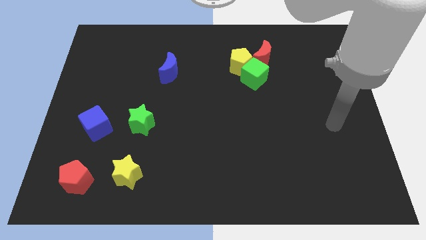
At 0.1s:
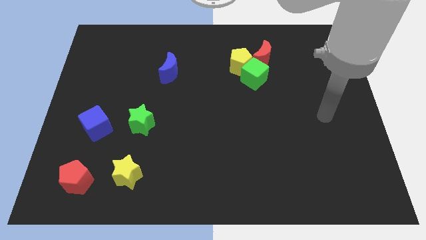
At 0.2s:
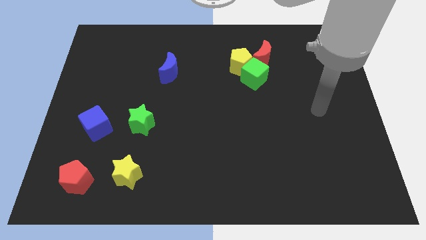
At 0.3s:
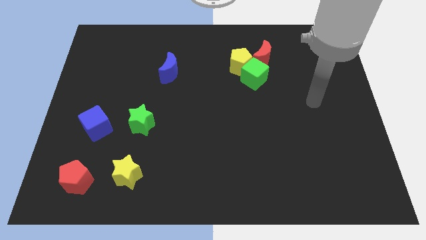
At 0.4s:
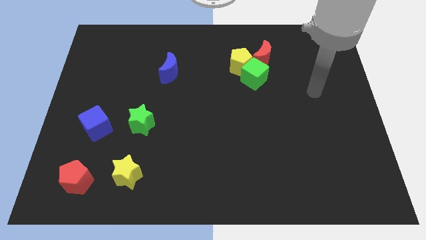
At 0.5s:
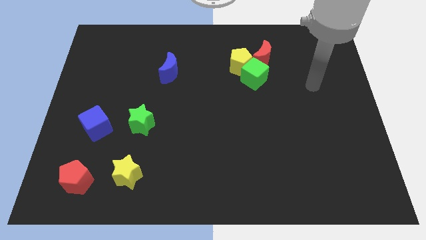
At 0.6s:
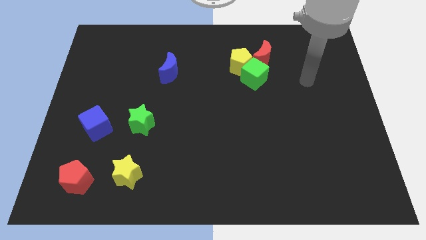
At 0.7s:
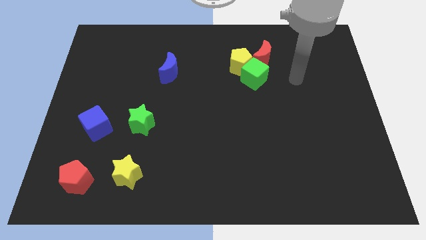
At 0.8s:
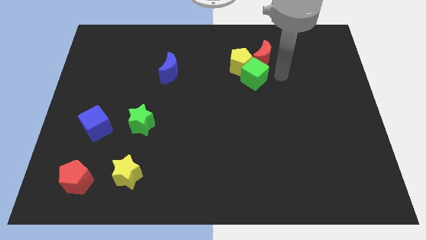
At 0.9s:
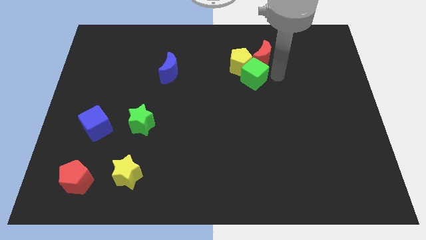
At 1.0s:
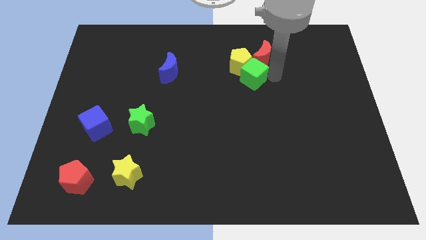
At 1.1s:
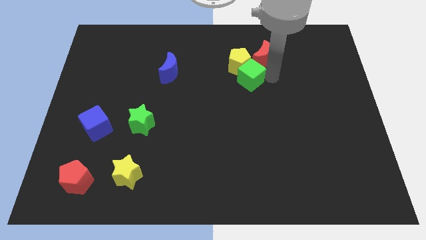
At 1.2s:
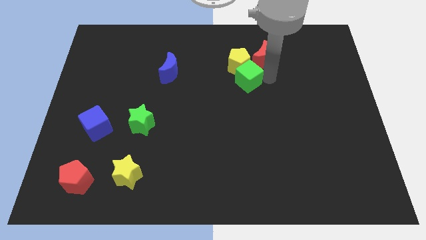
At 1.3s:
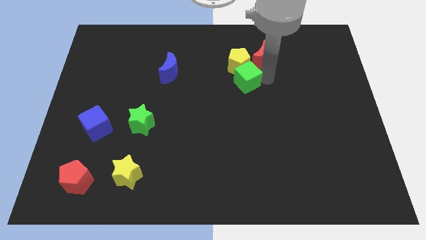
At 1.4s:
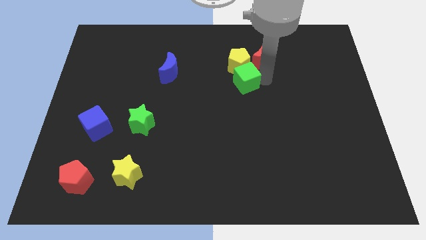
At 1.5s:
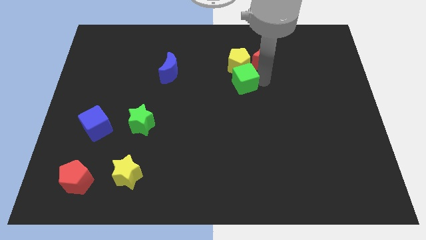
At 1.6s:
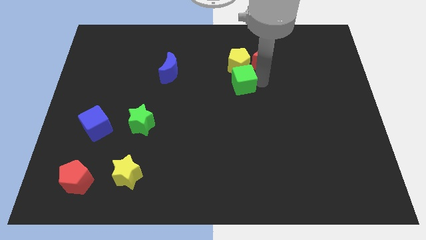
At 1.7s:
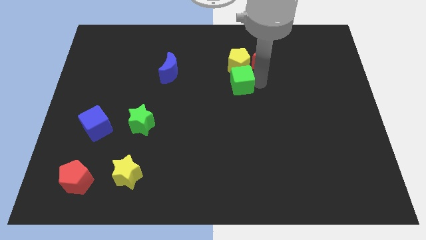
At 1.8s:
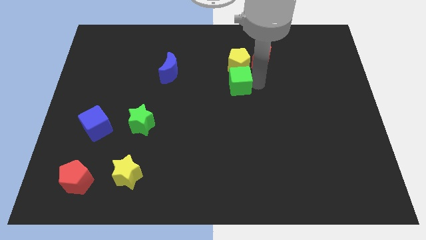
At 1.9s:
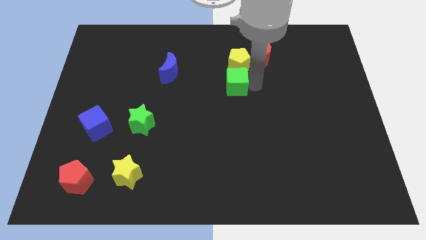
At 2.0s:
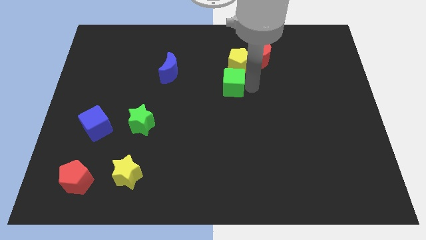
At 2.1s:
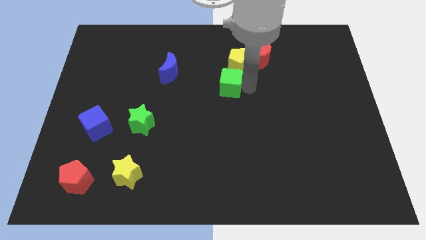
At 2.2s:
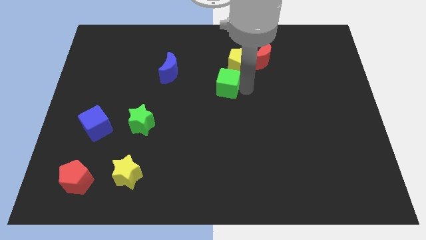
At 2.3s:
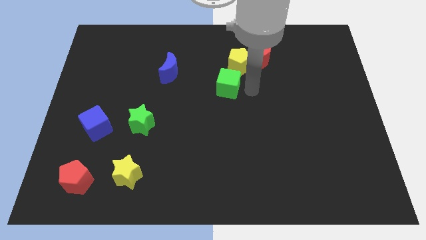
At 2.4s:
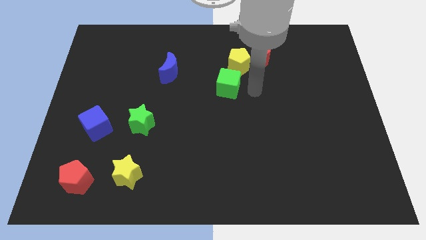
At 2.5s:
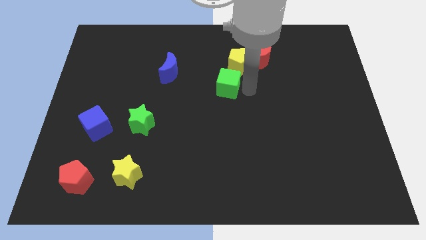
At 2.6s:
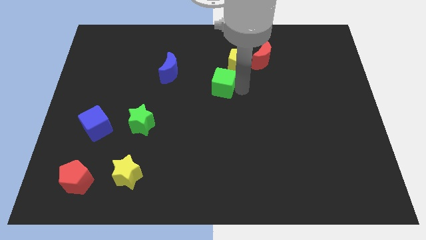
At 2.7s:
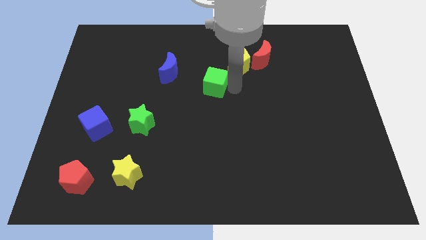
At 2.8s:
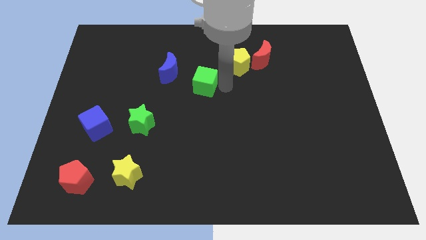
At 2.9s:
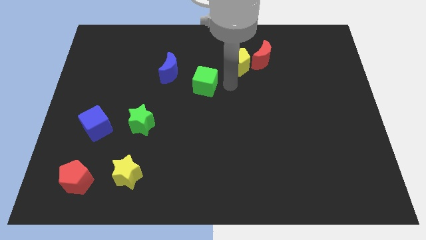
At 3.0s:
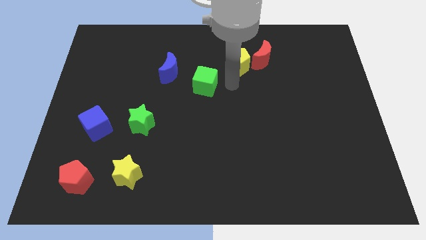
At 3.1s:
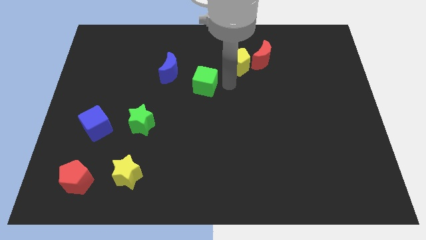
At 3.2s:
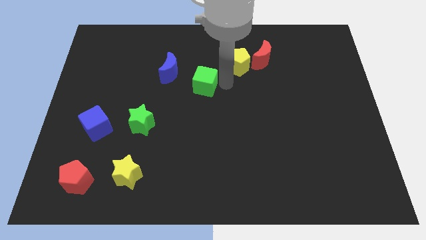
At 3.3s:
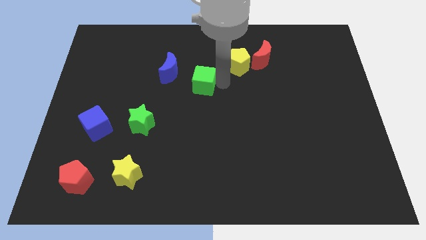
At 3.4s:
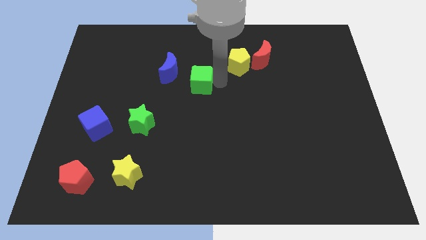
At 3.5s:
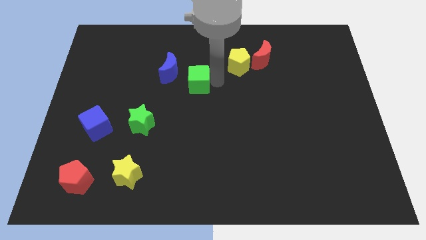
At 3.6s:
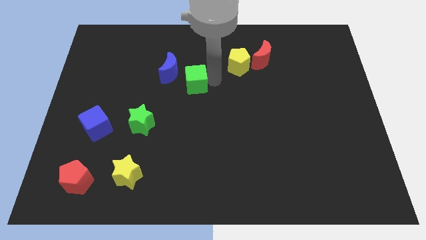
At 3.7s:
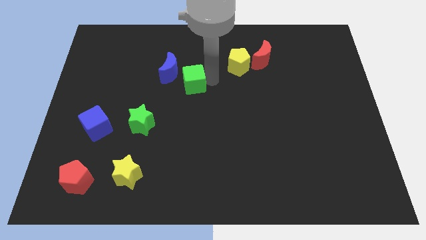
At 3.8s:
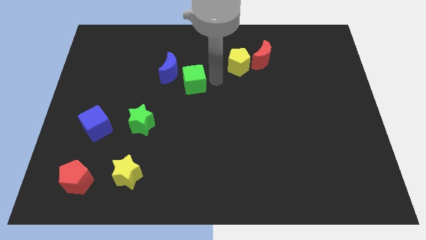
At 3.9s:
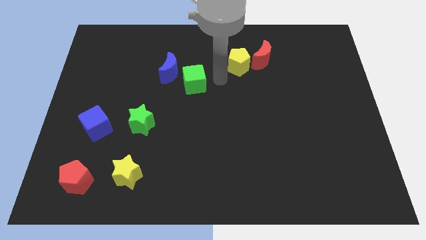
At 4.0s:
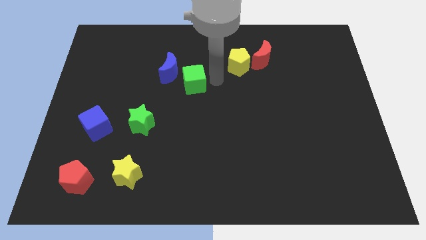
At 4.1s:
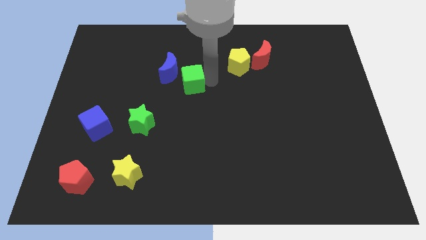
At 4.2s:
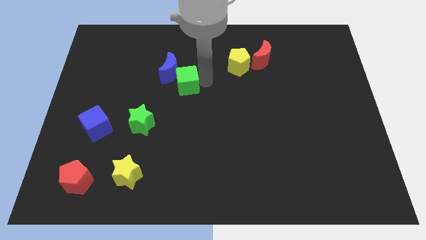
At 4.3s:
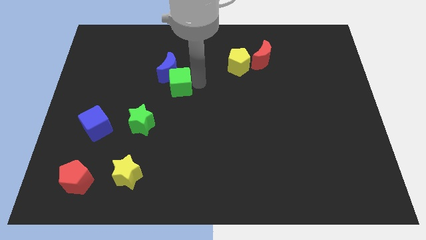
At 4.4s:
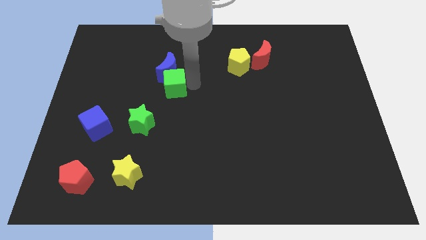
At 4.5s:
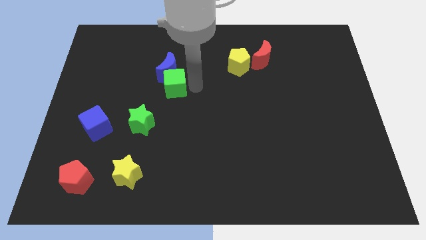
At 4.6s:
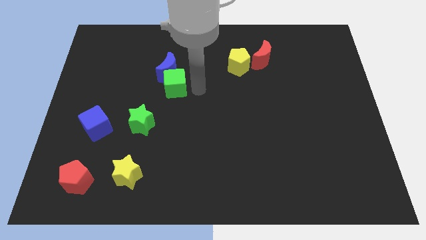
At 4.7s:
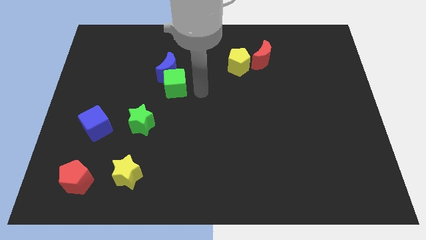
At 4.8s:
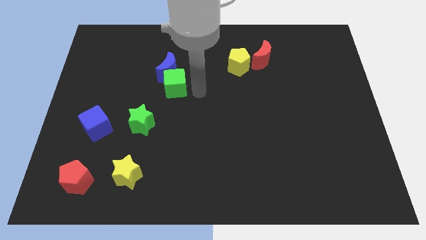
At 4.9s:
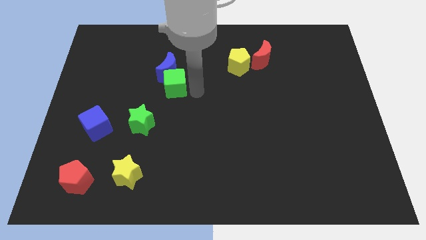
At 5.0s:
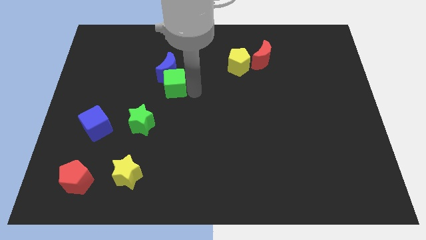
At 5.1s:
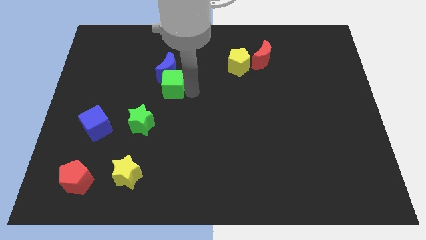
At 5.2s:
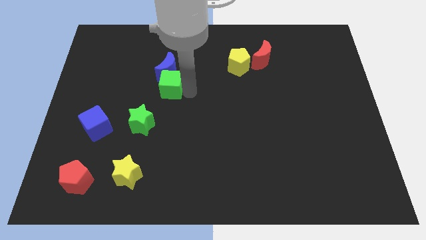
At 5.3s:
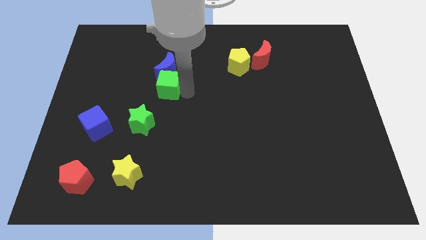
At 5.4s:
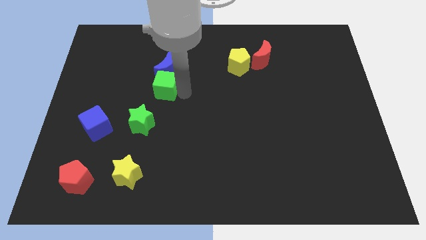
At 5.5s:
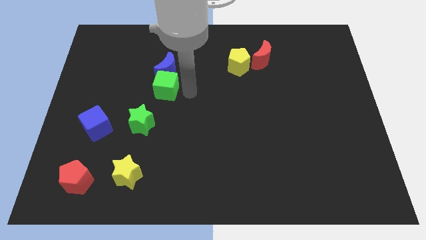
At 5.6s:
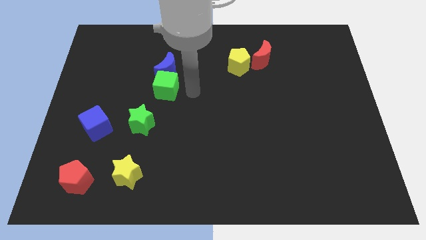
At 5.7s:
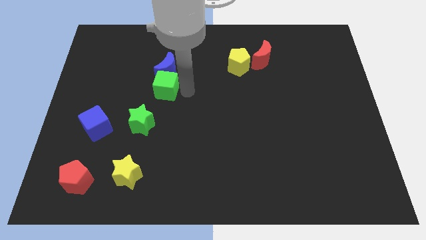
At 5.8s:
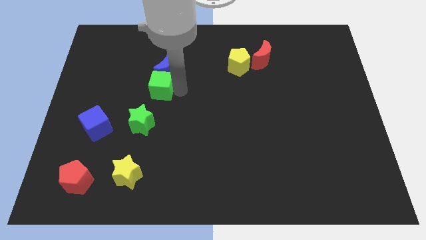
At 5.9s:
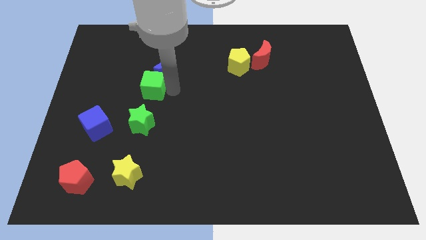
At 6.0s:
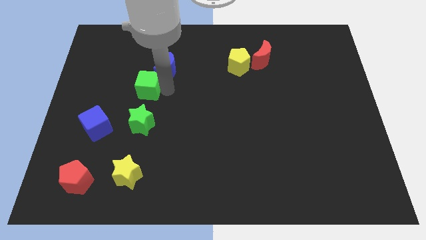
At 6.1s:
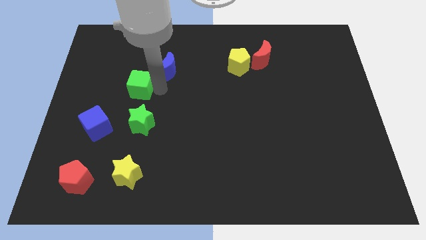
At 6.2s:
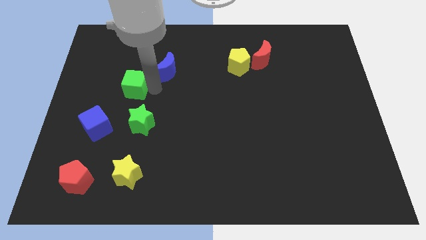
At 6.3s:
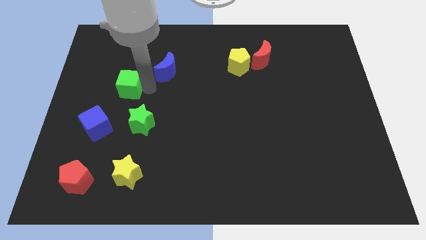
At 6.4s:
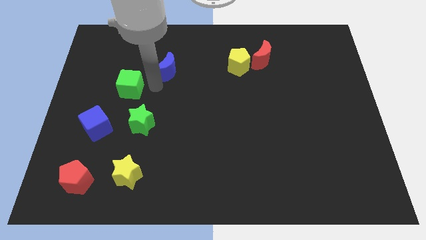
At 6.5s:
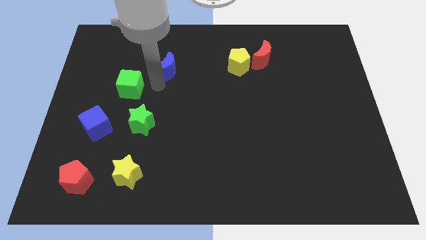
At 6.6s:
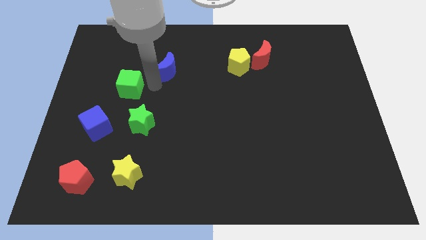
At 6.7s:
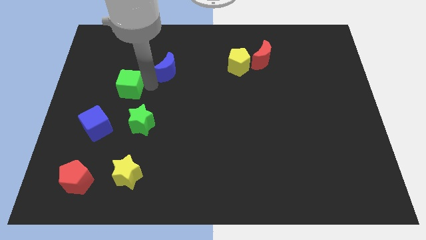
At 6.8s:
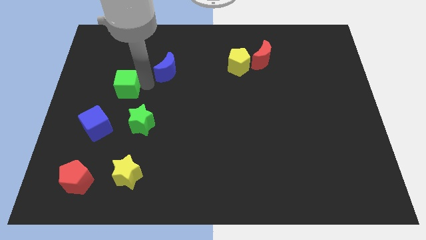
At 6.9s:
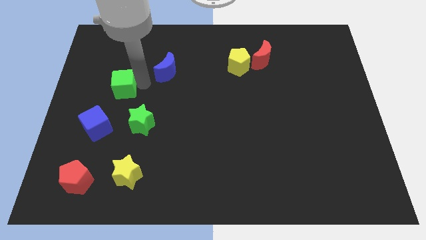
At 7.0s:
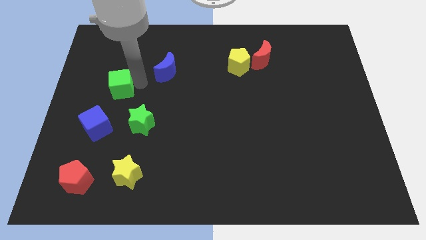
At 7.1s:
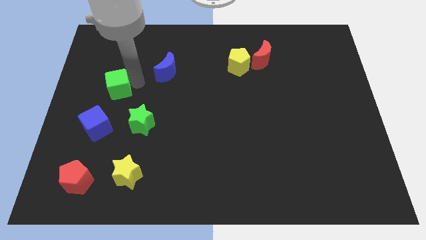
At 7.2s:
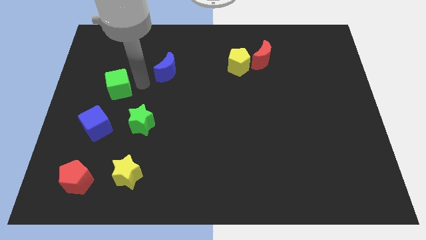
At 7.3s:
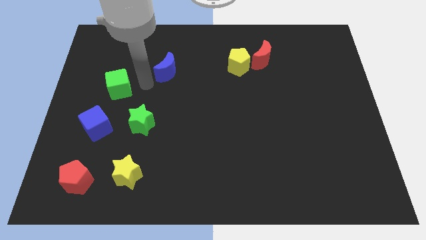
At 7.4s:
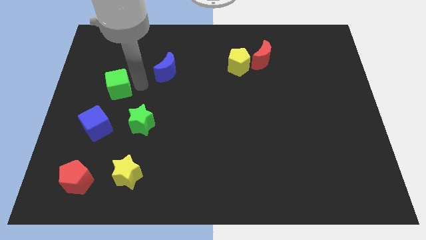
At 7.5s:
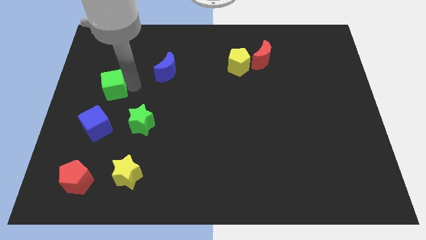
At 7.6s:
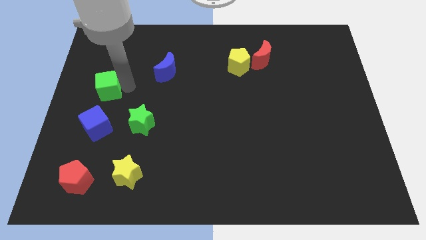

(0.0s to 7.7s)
slide the green cube to the center left
